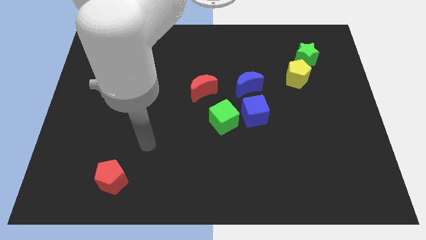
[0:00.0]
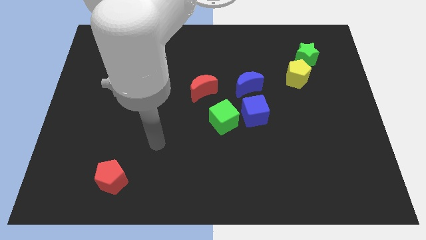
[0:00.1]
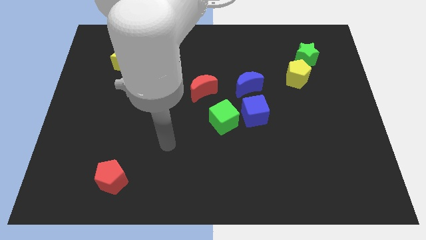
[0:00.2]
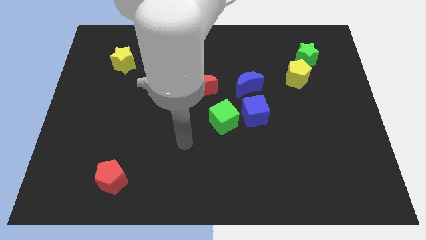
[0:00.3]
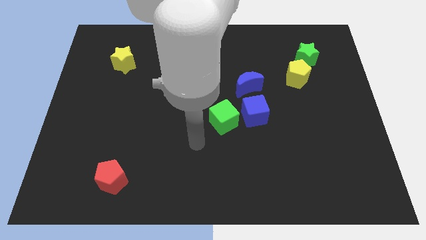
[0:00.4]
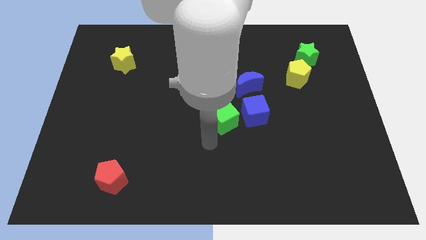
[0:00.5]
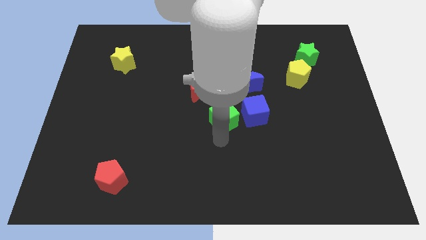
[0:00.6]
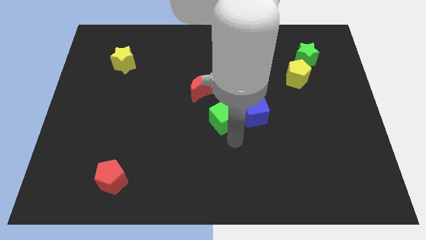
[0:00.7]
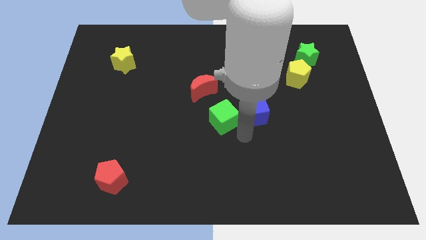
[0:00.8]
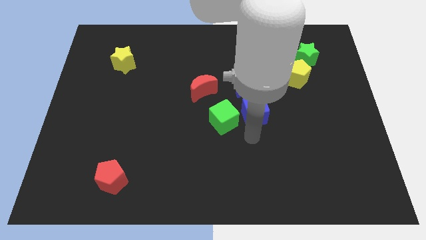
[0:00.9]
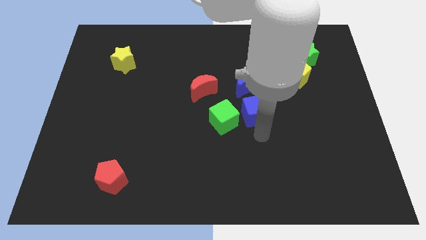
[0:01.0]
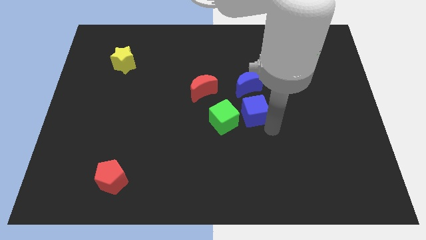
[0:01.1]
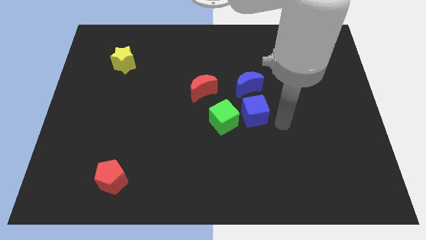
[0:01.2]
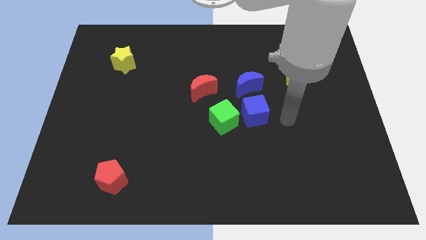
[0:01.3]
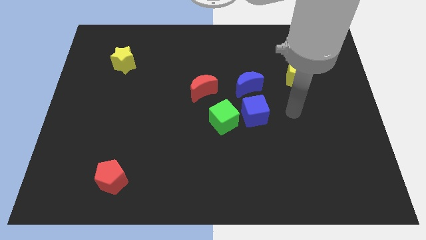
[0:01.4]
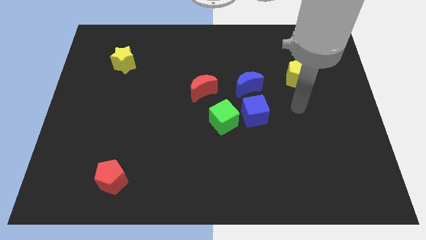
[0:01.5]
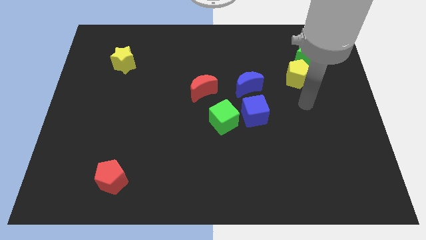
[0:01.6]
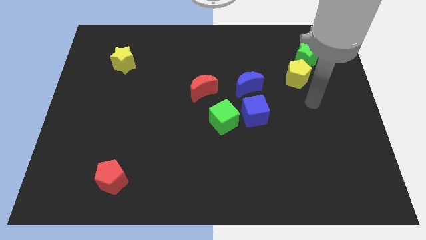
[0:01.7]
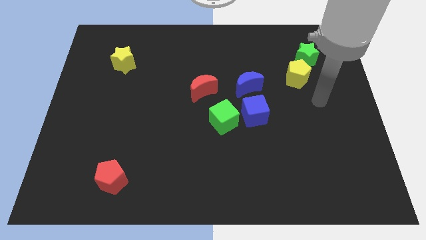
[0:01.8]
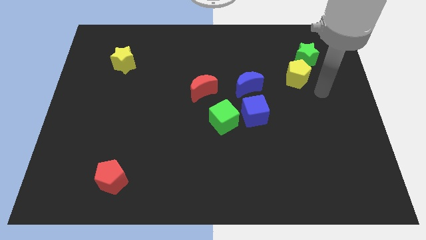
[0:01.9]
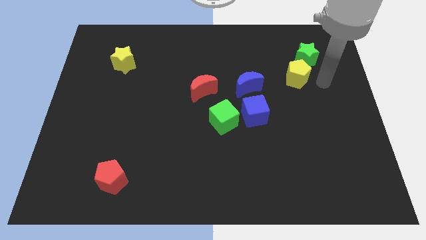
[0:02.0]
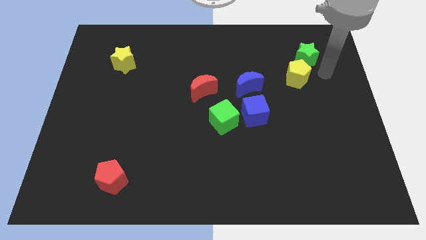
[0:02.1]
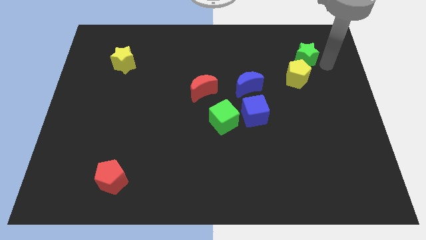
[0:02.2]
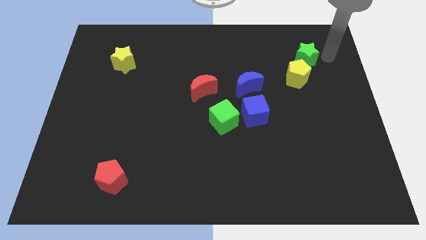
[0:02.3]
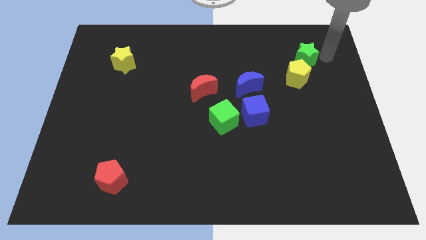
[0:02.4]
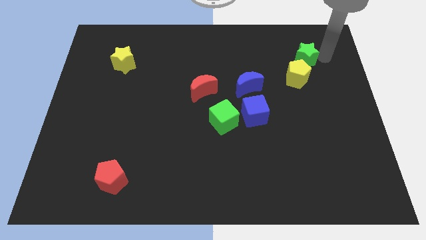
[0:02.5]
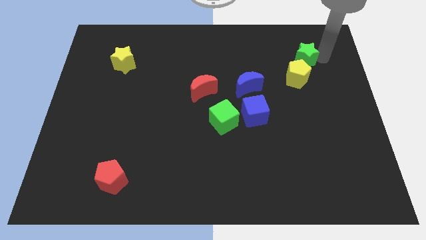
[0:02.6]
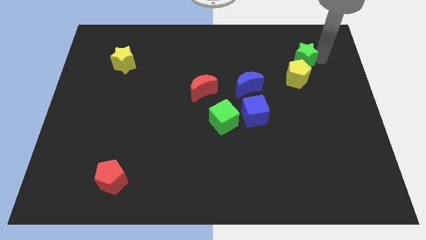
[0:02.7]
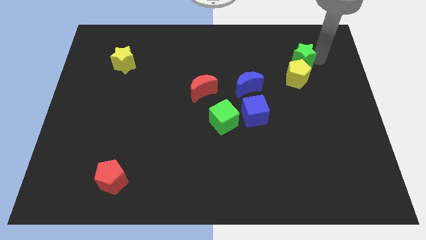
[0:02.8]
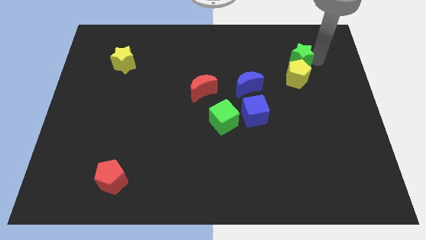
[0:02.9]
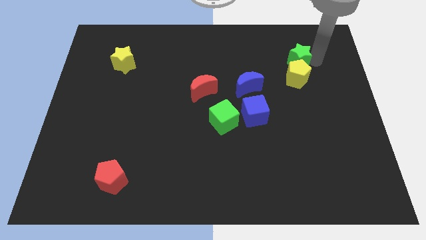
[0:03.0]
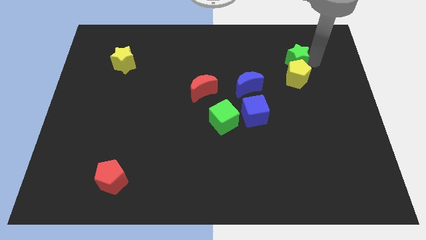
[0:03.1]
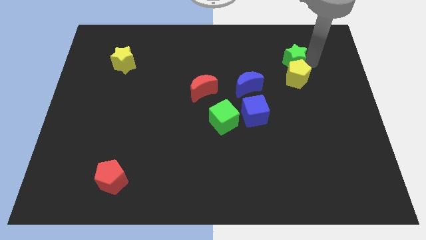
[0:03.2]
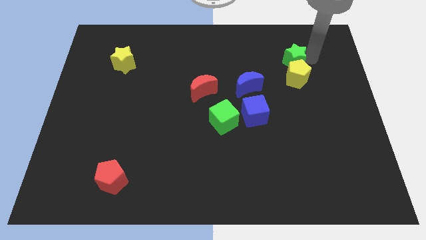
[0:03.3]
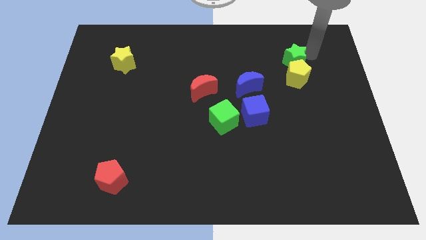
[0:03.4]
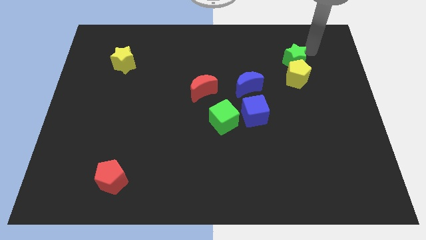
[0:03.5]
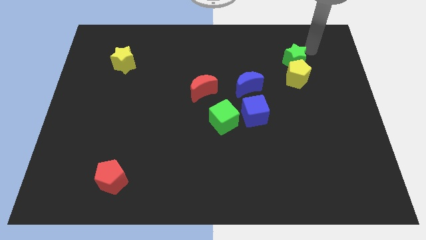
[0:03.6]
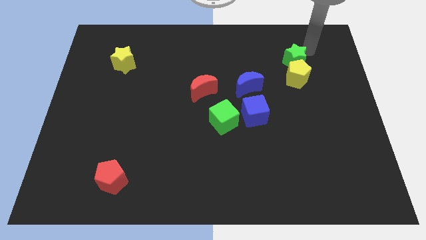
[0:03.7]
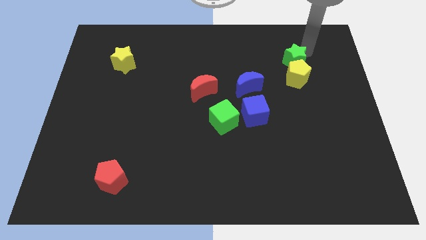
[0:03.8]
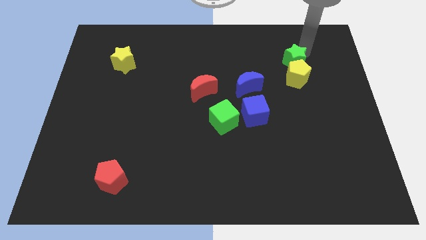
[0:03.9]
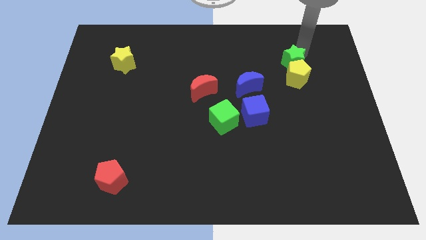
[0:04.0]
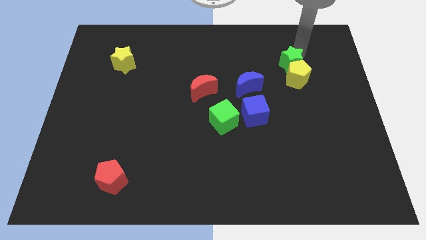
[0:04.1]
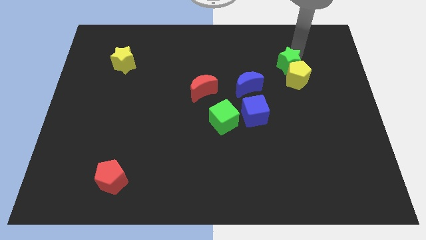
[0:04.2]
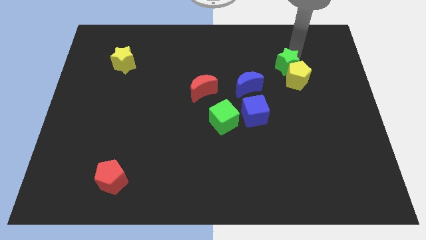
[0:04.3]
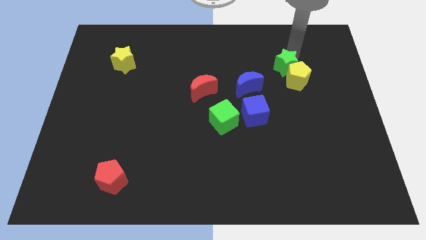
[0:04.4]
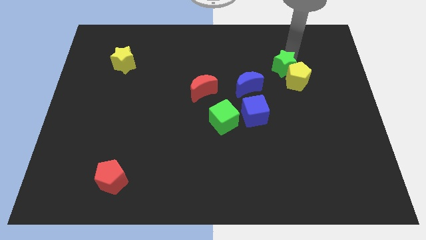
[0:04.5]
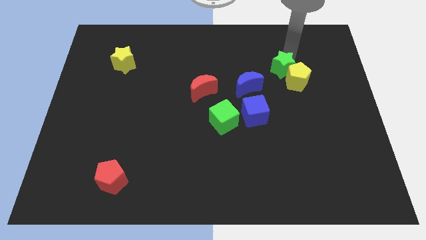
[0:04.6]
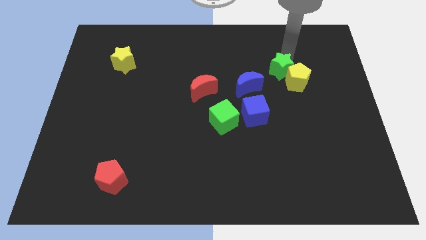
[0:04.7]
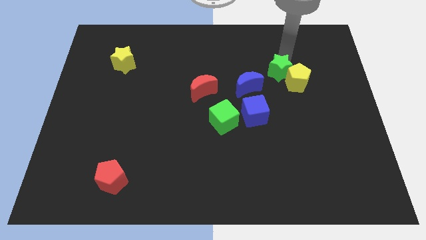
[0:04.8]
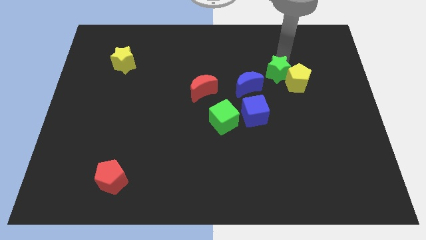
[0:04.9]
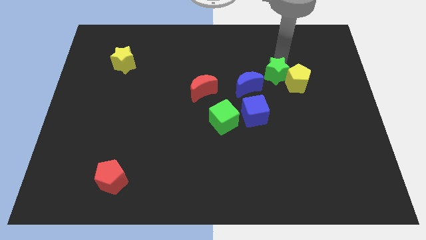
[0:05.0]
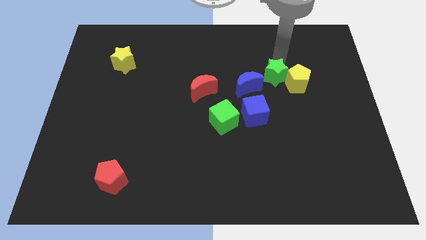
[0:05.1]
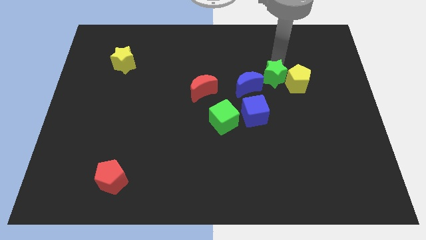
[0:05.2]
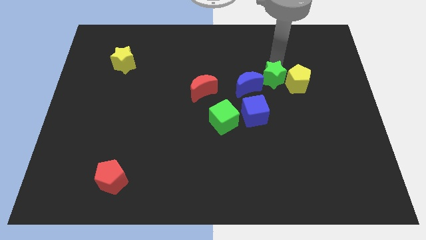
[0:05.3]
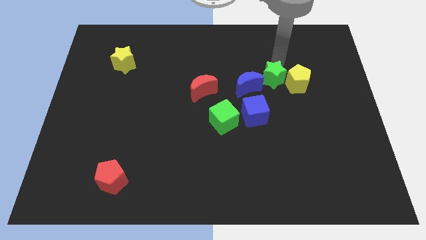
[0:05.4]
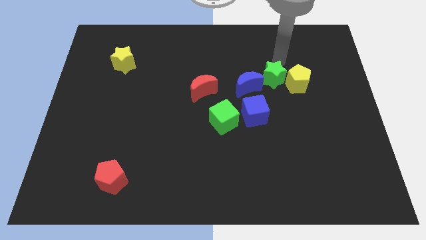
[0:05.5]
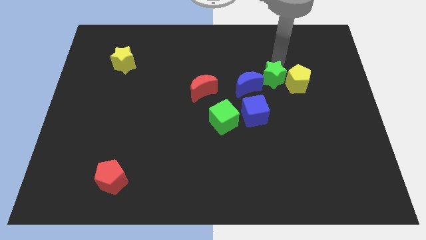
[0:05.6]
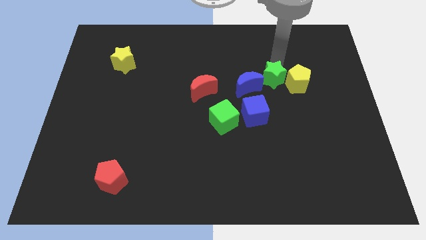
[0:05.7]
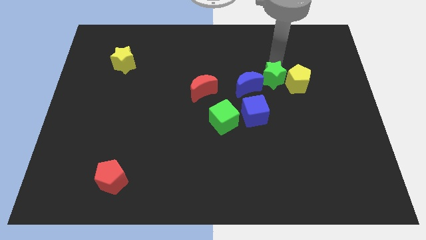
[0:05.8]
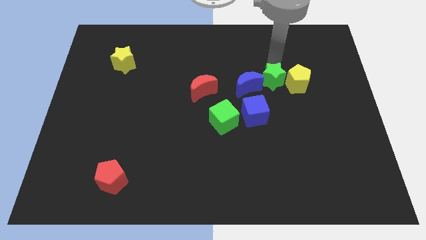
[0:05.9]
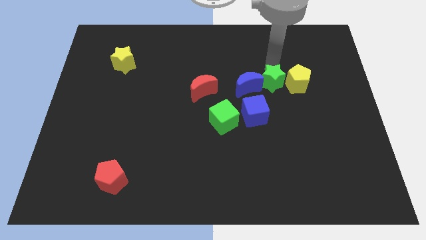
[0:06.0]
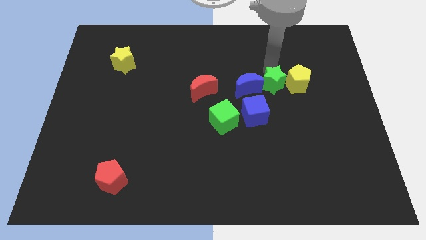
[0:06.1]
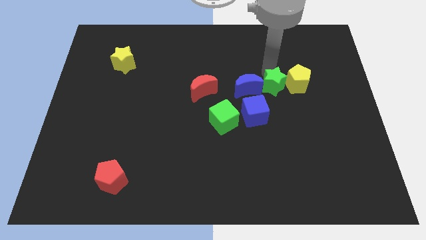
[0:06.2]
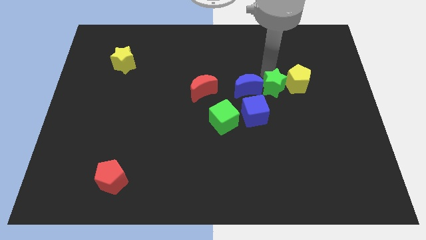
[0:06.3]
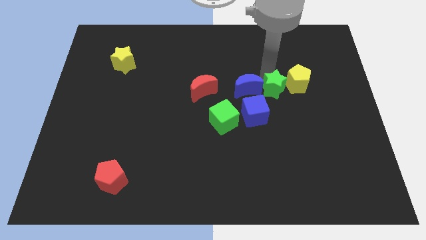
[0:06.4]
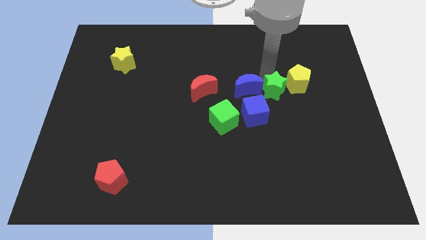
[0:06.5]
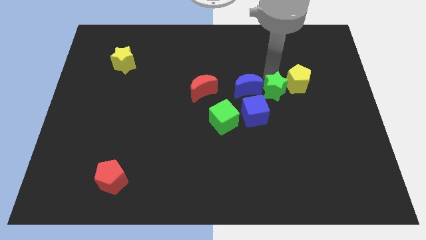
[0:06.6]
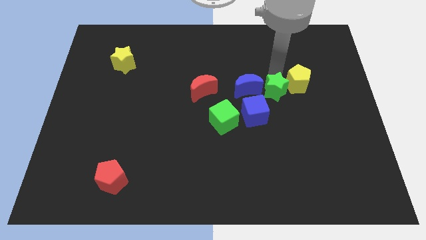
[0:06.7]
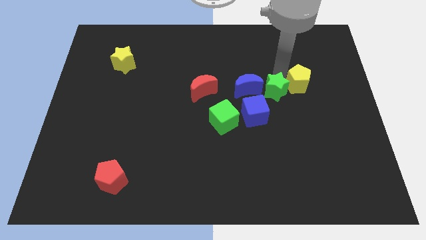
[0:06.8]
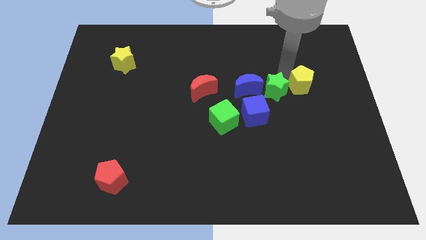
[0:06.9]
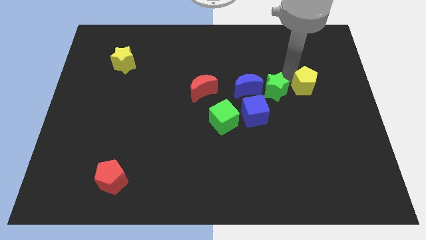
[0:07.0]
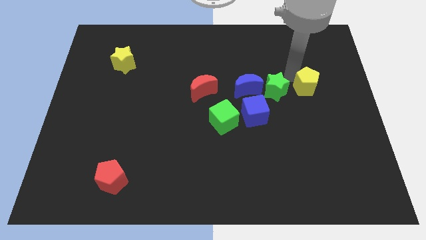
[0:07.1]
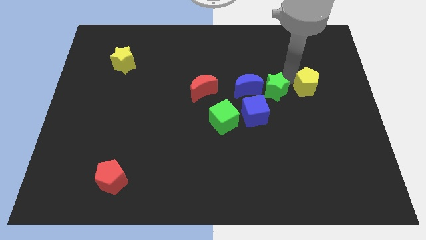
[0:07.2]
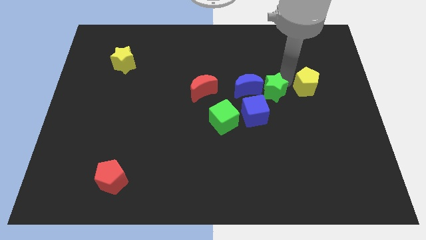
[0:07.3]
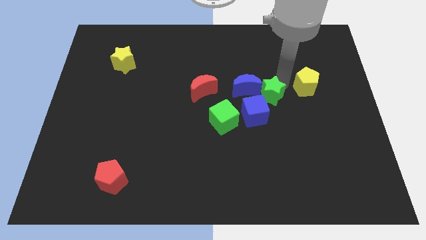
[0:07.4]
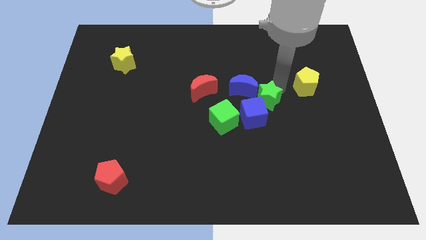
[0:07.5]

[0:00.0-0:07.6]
slide the green star diagonally up and to the right of the green cube
